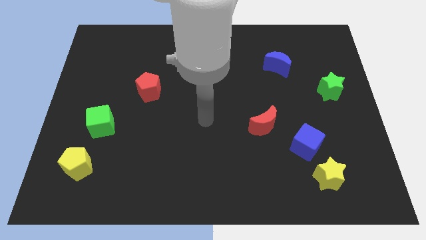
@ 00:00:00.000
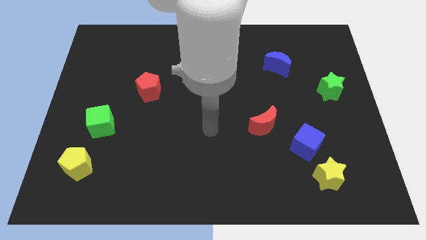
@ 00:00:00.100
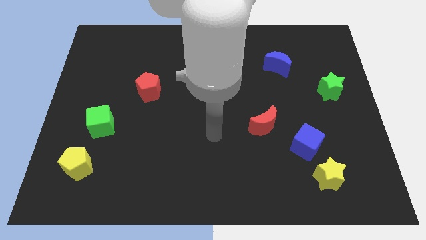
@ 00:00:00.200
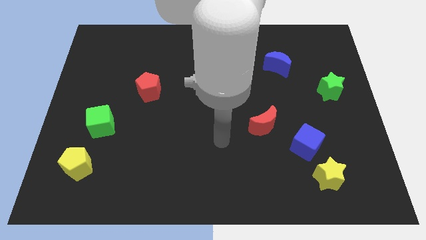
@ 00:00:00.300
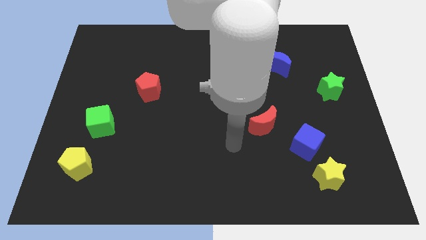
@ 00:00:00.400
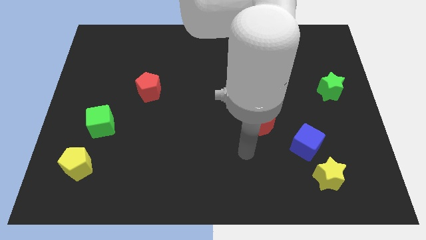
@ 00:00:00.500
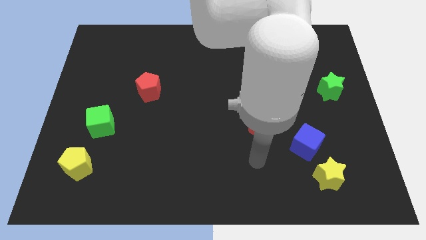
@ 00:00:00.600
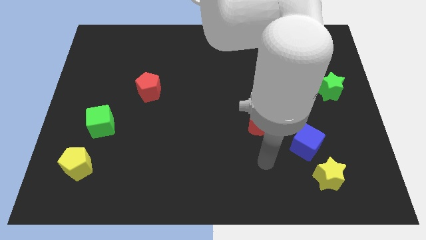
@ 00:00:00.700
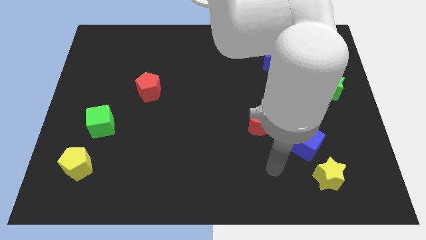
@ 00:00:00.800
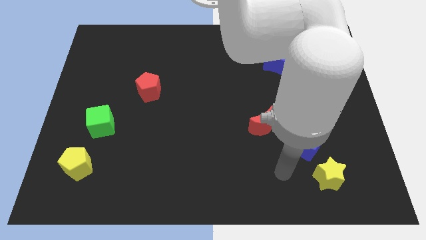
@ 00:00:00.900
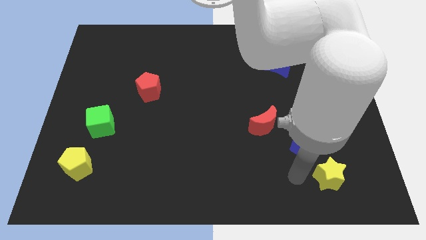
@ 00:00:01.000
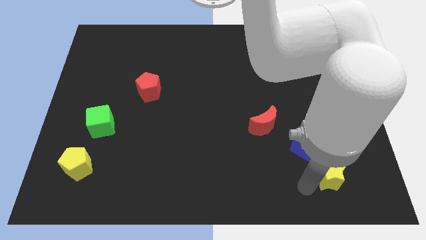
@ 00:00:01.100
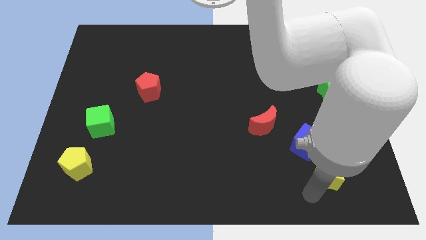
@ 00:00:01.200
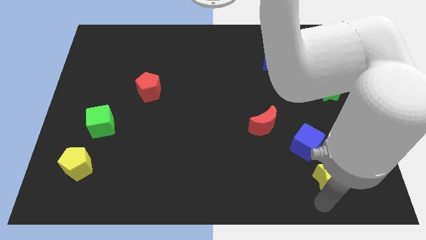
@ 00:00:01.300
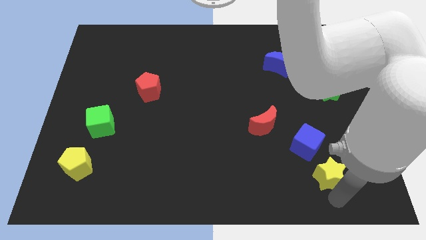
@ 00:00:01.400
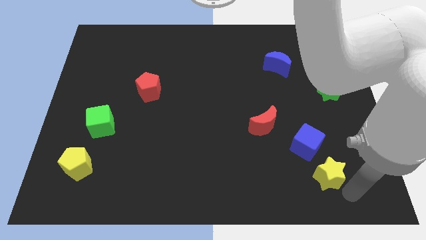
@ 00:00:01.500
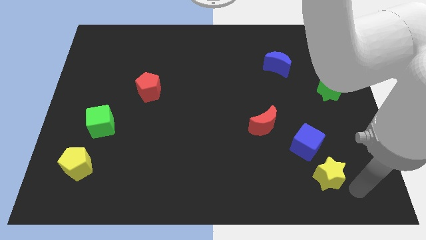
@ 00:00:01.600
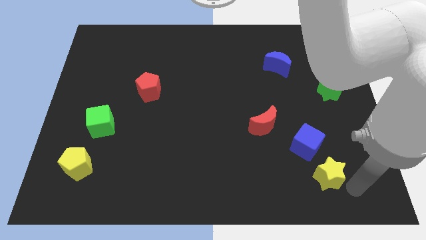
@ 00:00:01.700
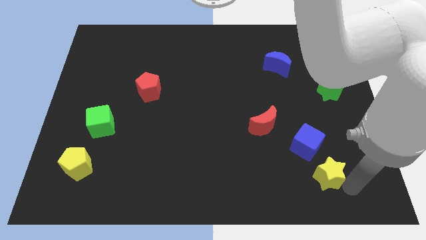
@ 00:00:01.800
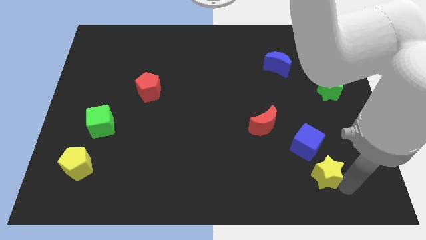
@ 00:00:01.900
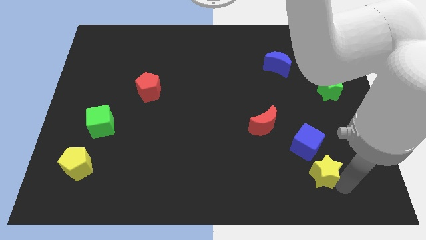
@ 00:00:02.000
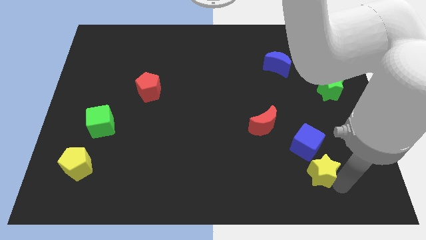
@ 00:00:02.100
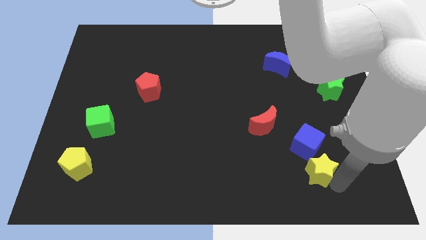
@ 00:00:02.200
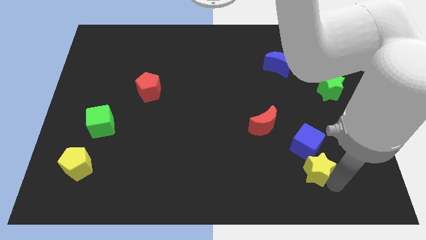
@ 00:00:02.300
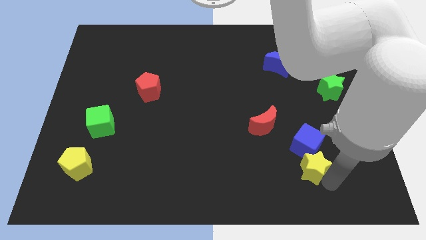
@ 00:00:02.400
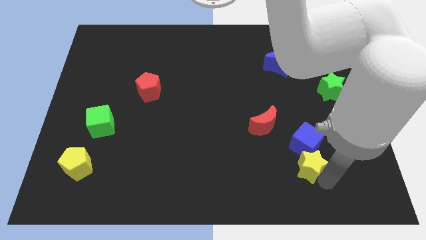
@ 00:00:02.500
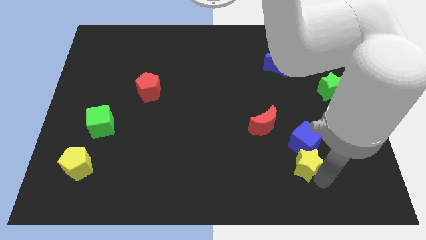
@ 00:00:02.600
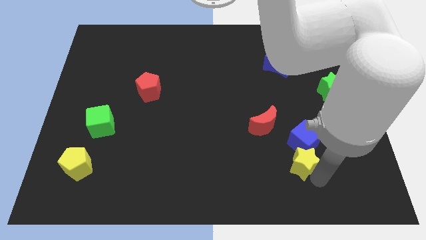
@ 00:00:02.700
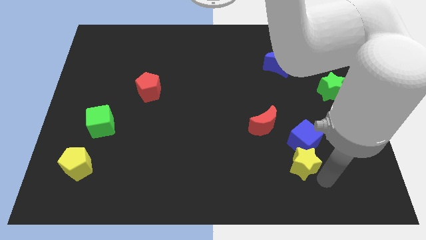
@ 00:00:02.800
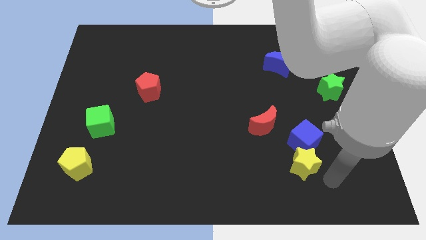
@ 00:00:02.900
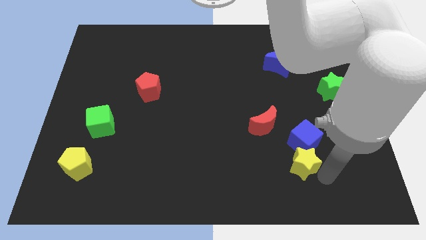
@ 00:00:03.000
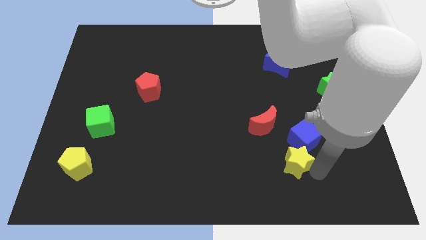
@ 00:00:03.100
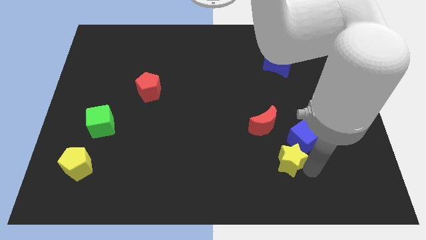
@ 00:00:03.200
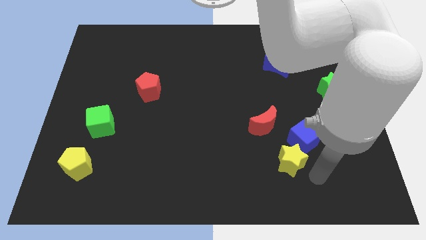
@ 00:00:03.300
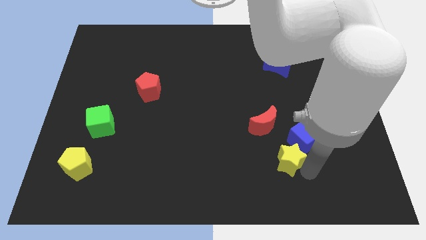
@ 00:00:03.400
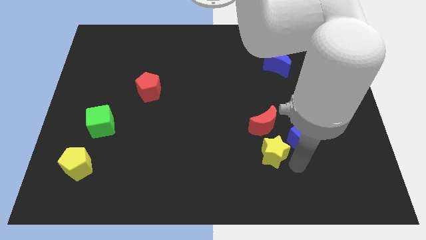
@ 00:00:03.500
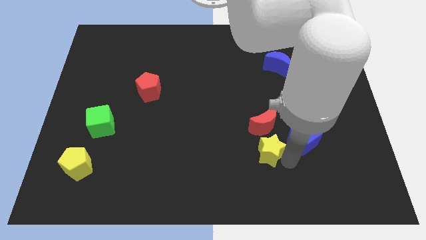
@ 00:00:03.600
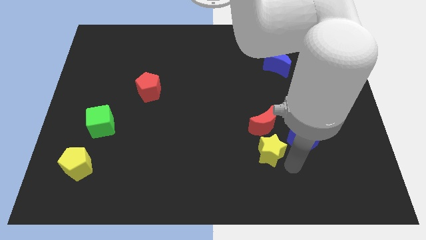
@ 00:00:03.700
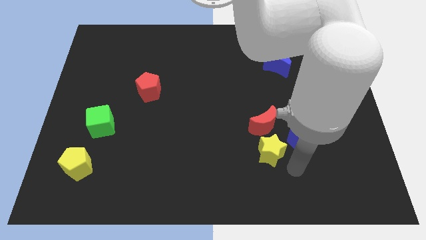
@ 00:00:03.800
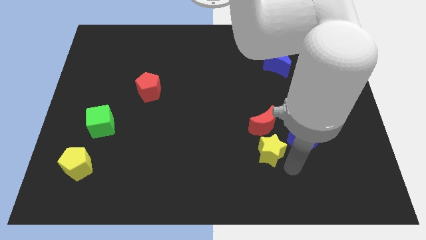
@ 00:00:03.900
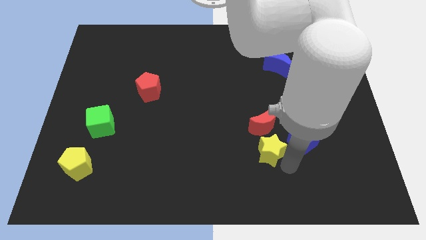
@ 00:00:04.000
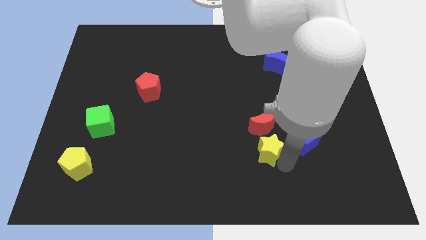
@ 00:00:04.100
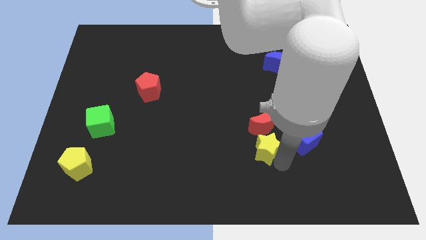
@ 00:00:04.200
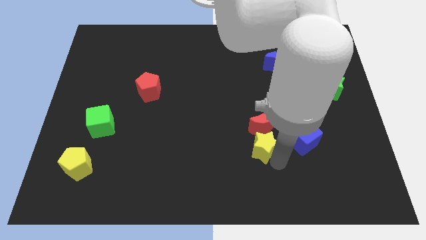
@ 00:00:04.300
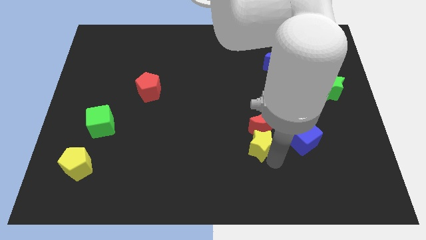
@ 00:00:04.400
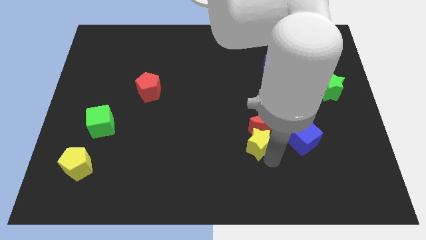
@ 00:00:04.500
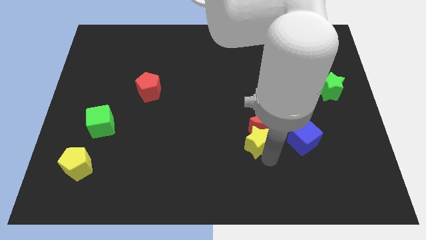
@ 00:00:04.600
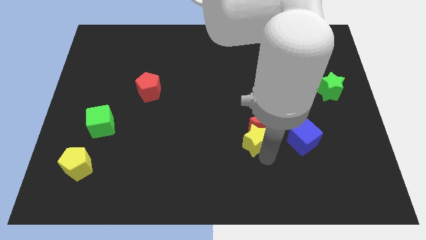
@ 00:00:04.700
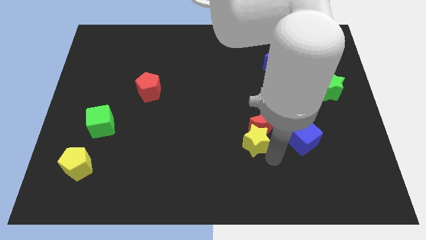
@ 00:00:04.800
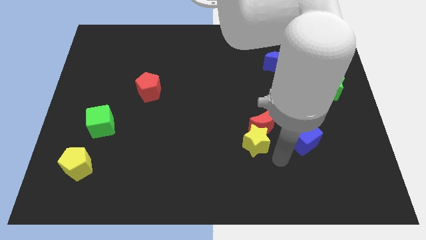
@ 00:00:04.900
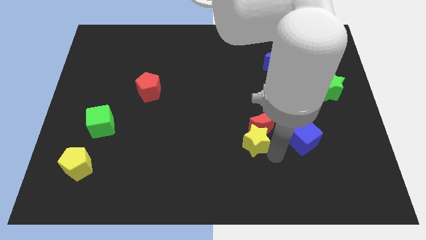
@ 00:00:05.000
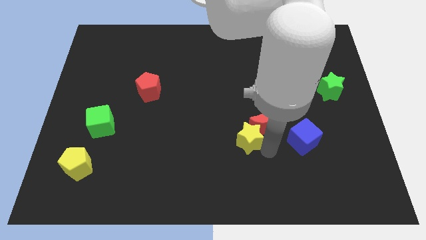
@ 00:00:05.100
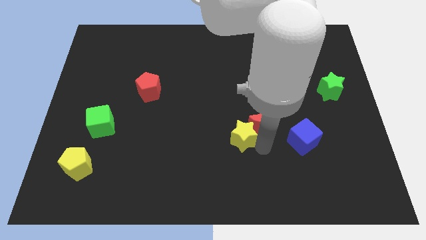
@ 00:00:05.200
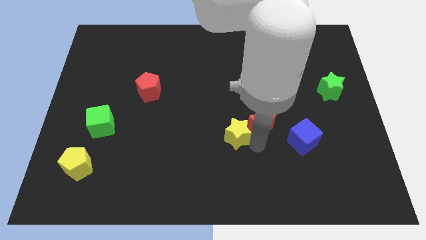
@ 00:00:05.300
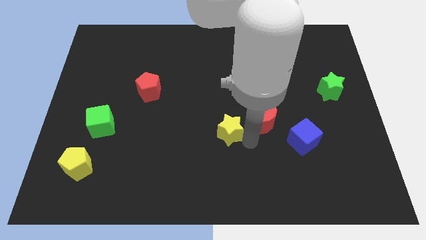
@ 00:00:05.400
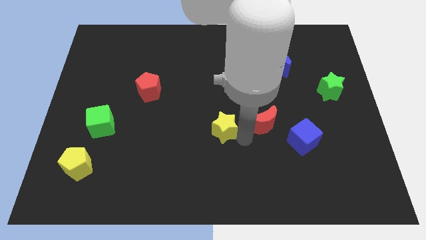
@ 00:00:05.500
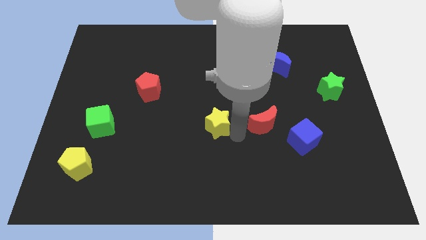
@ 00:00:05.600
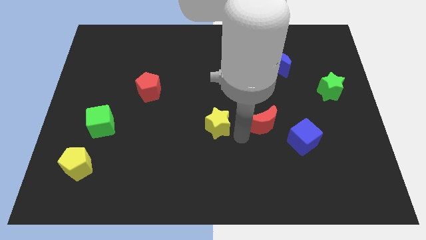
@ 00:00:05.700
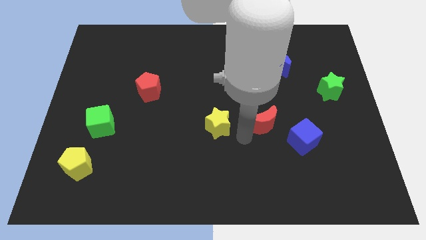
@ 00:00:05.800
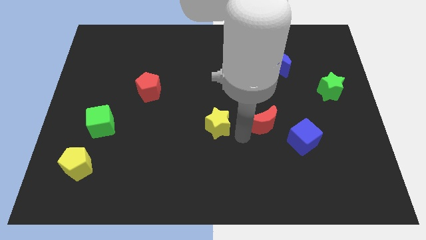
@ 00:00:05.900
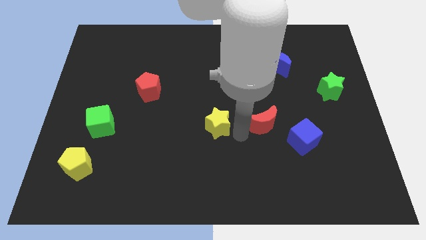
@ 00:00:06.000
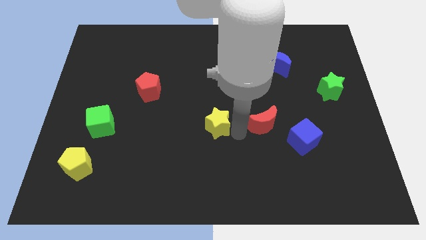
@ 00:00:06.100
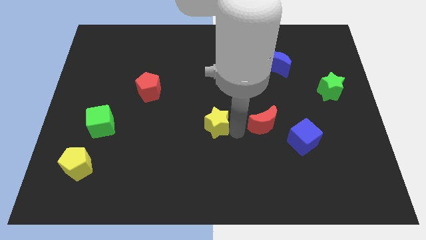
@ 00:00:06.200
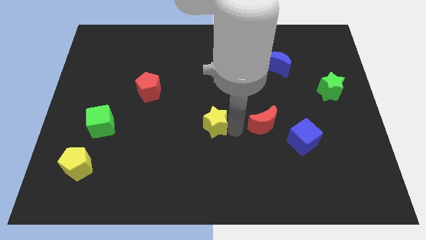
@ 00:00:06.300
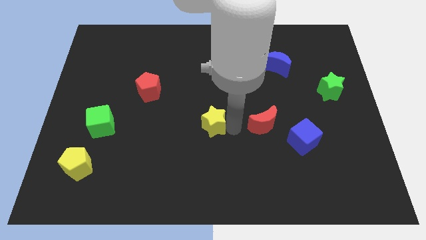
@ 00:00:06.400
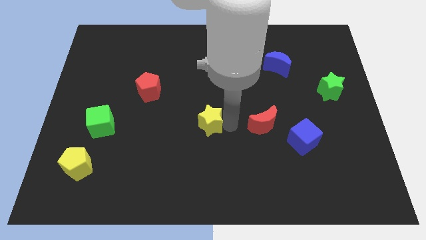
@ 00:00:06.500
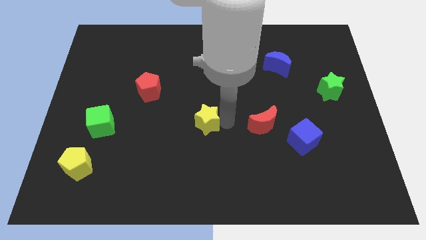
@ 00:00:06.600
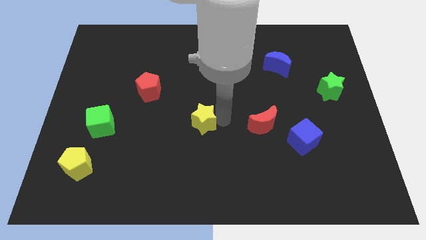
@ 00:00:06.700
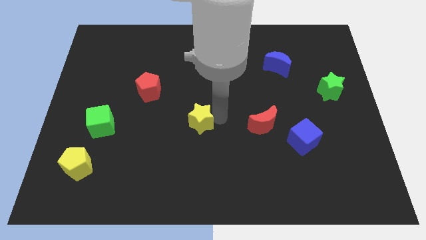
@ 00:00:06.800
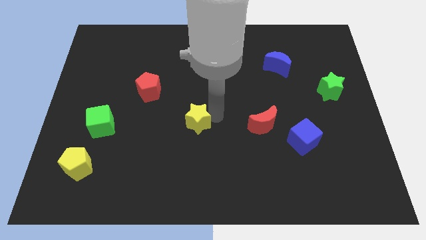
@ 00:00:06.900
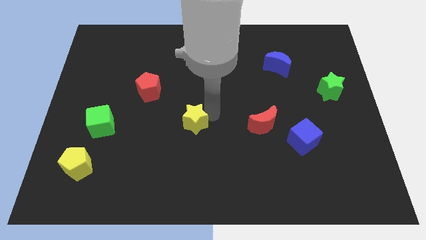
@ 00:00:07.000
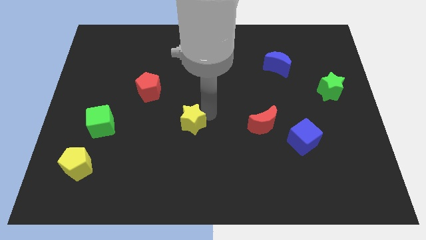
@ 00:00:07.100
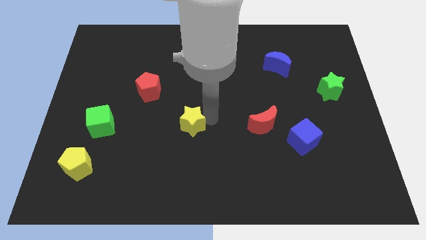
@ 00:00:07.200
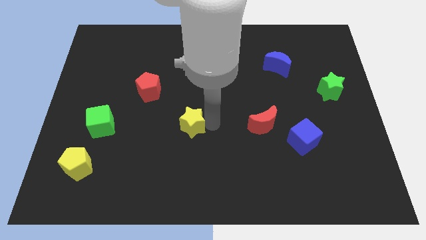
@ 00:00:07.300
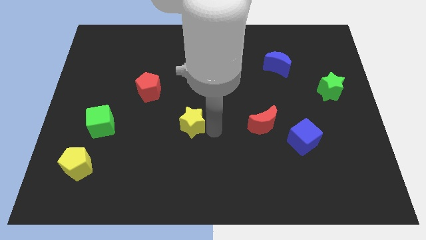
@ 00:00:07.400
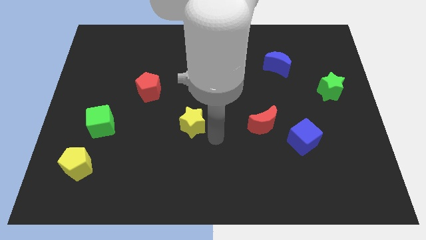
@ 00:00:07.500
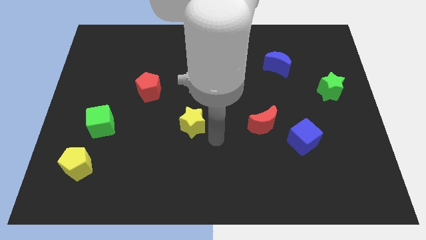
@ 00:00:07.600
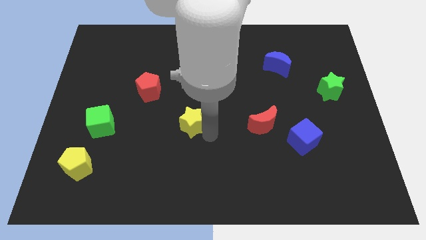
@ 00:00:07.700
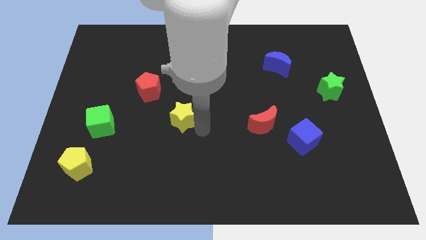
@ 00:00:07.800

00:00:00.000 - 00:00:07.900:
slide the yellow star to the bottom right of the red pentagon
